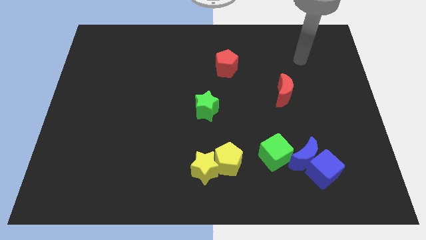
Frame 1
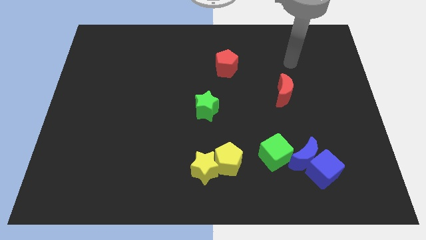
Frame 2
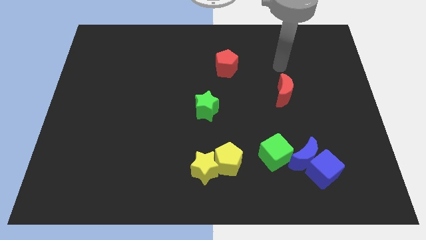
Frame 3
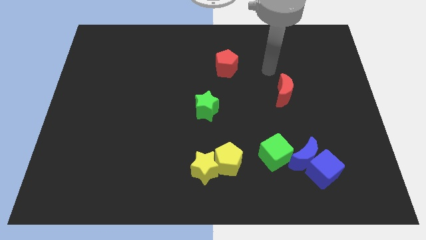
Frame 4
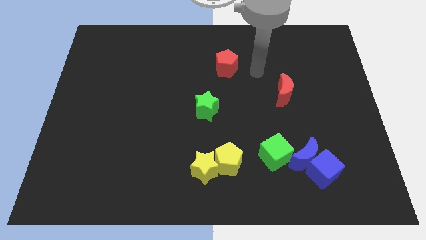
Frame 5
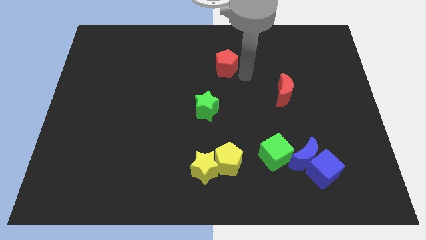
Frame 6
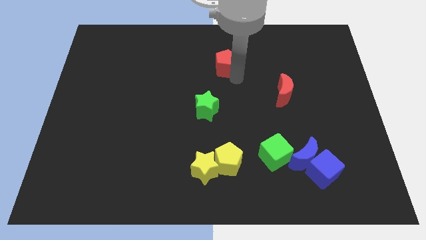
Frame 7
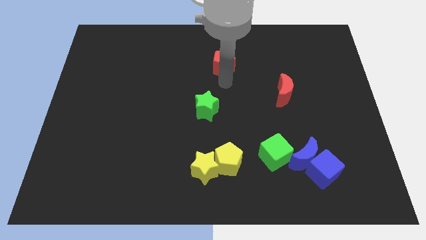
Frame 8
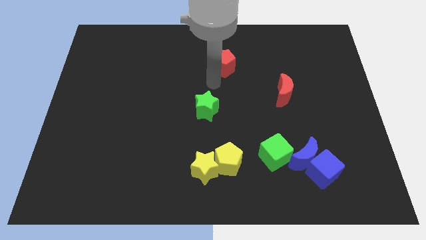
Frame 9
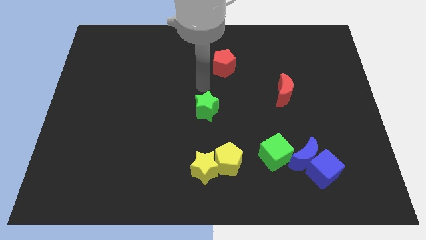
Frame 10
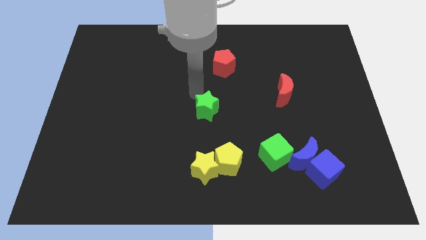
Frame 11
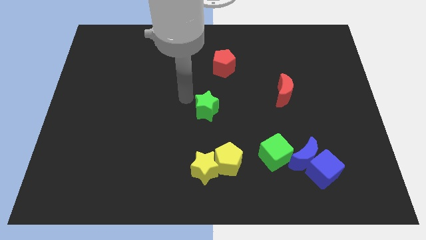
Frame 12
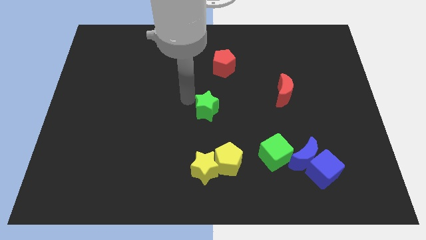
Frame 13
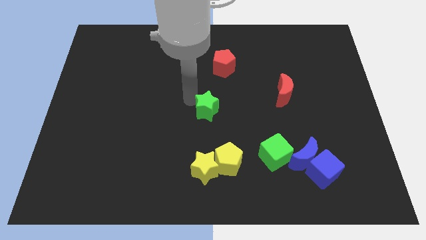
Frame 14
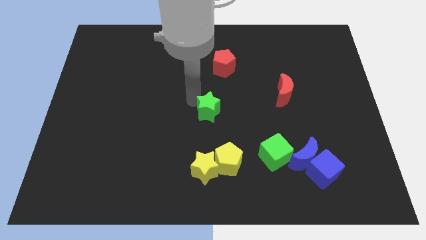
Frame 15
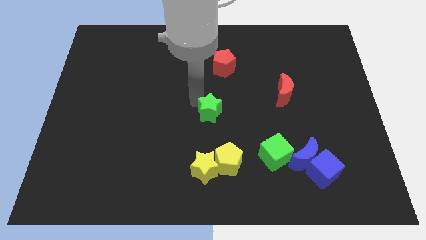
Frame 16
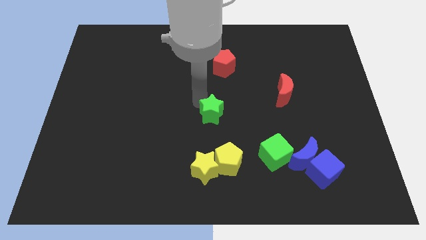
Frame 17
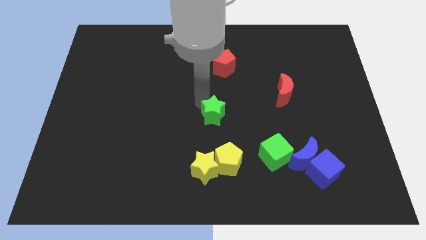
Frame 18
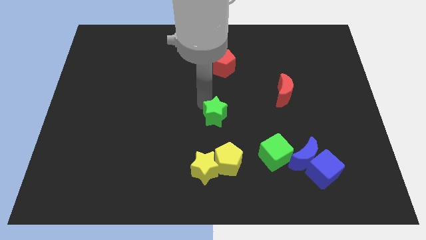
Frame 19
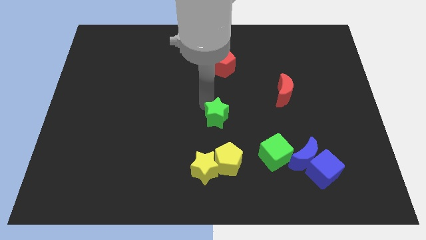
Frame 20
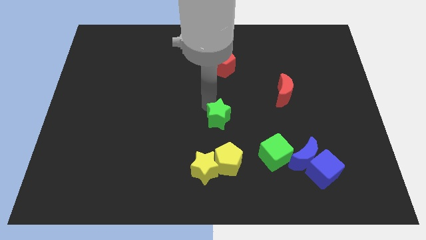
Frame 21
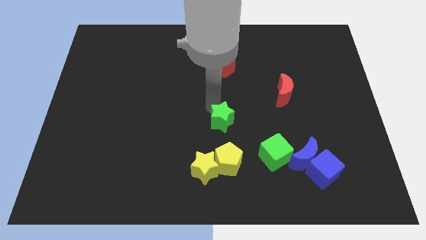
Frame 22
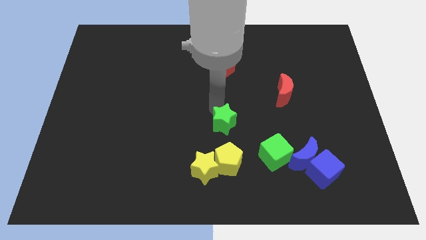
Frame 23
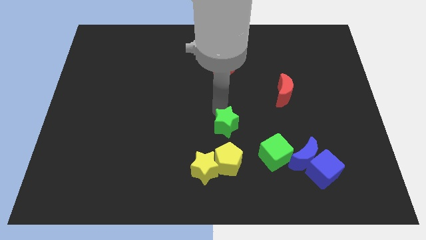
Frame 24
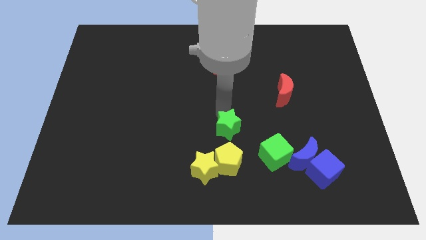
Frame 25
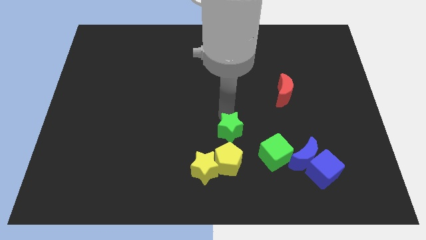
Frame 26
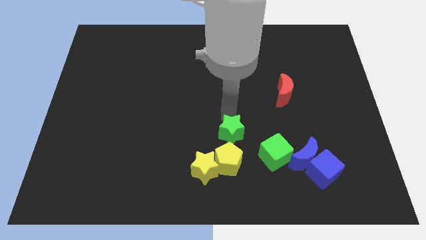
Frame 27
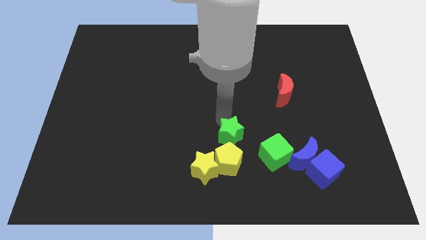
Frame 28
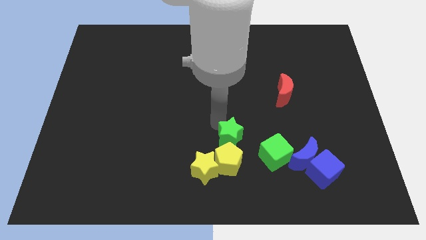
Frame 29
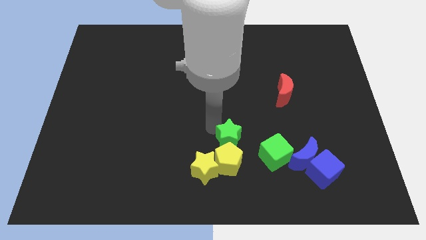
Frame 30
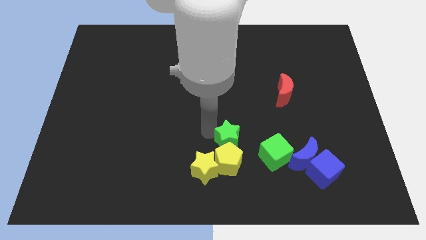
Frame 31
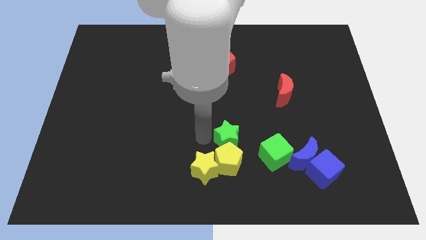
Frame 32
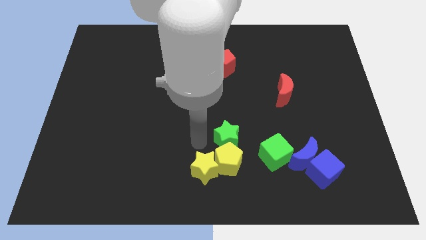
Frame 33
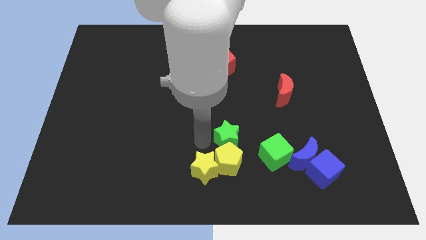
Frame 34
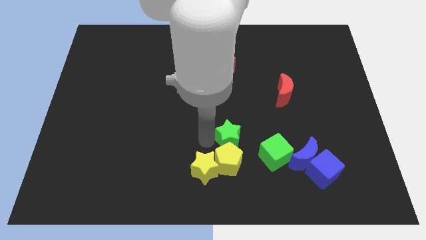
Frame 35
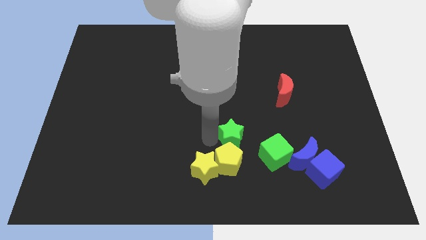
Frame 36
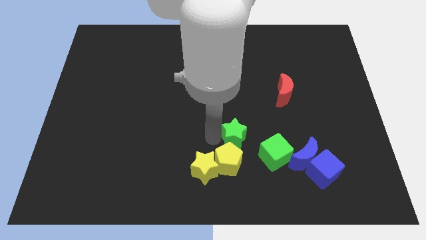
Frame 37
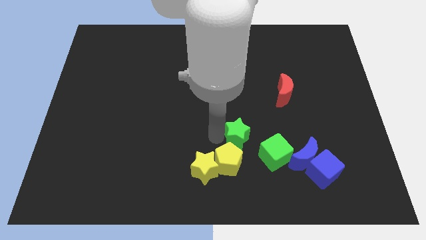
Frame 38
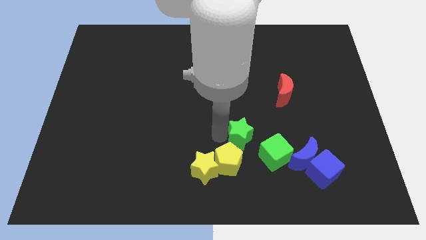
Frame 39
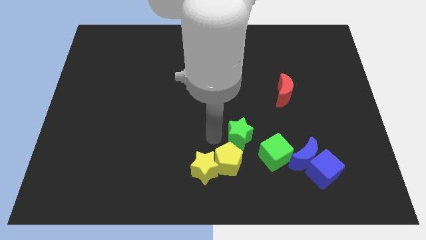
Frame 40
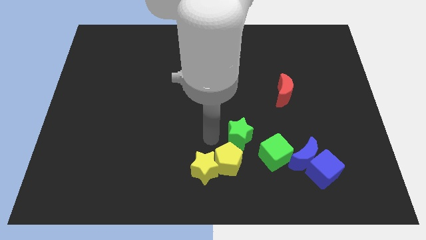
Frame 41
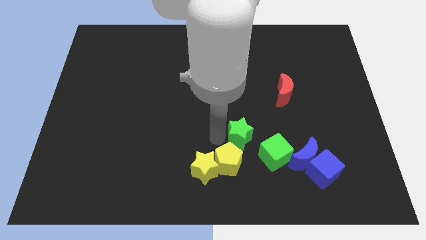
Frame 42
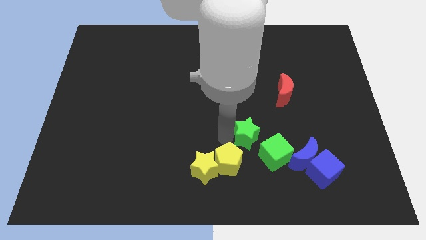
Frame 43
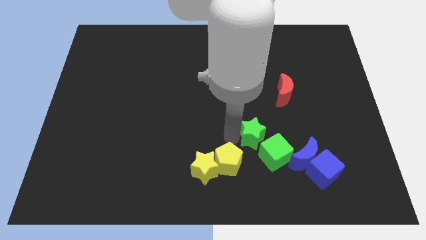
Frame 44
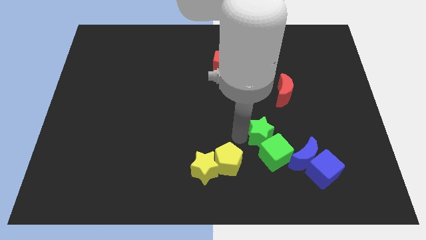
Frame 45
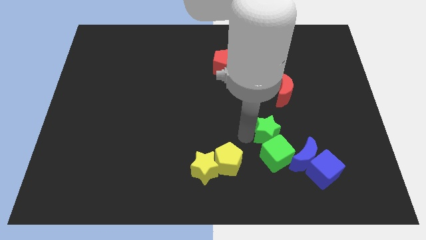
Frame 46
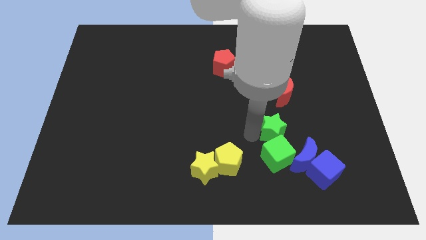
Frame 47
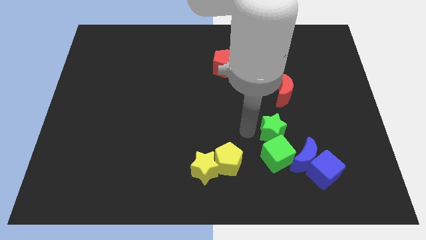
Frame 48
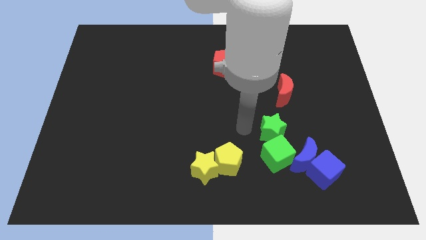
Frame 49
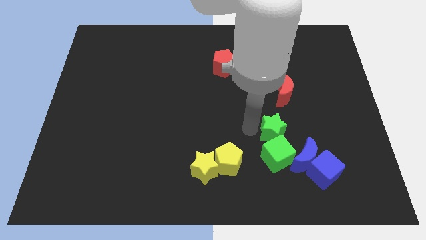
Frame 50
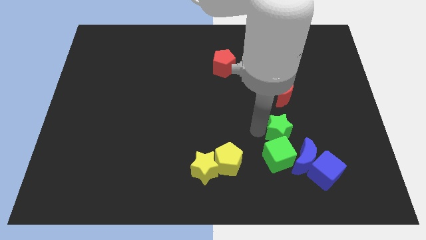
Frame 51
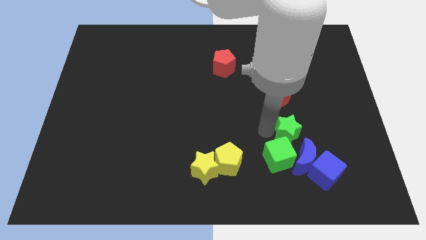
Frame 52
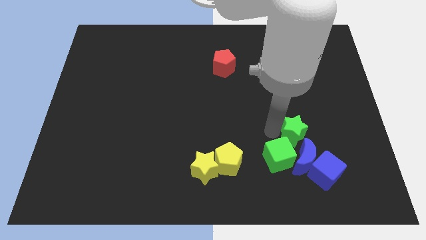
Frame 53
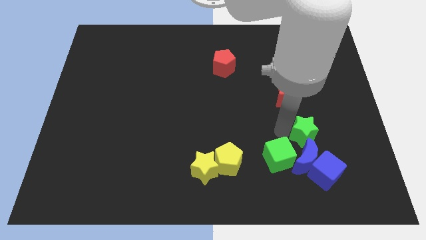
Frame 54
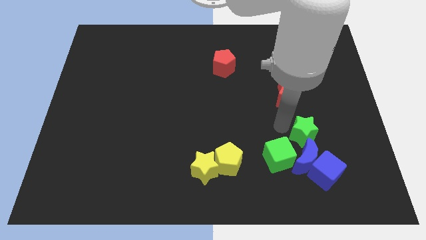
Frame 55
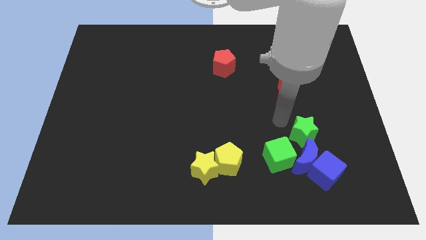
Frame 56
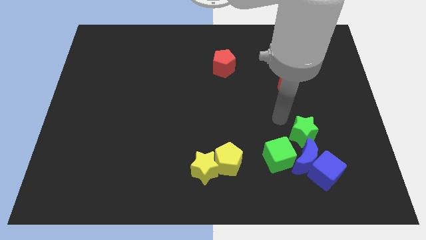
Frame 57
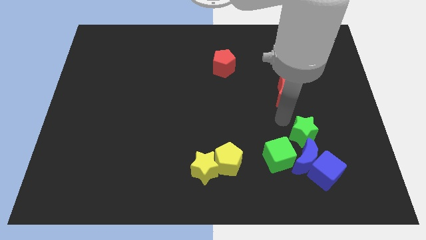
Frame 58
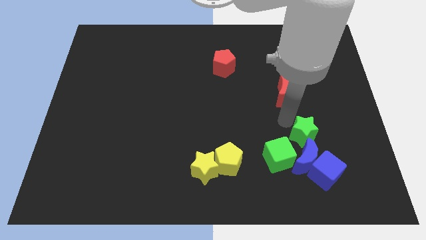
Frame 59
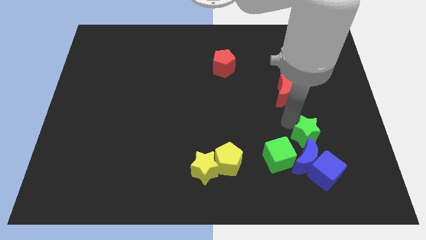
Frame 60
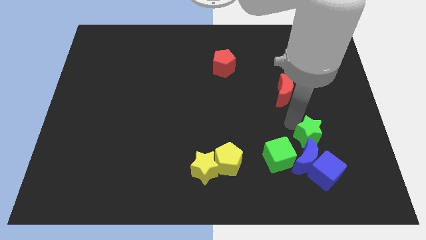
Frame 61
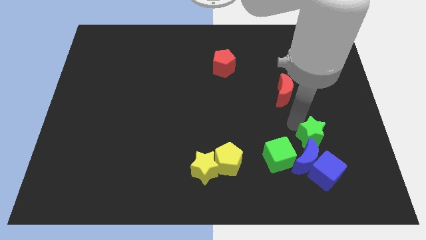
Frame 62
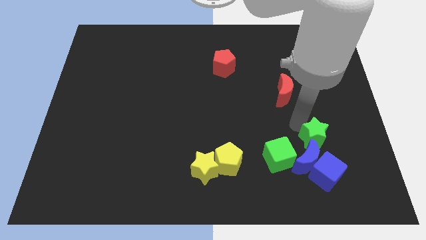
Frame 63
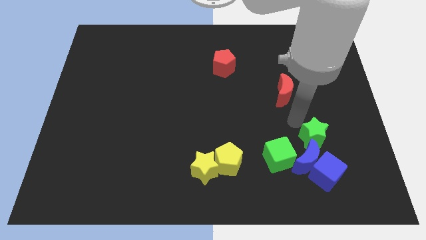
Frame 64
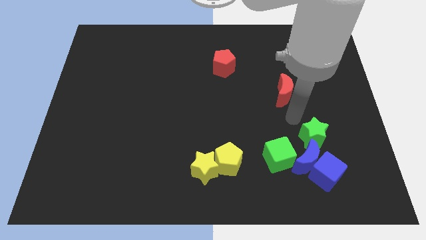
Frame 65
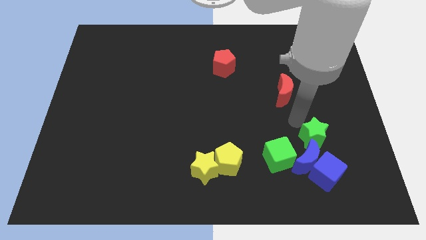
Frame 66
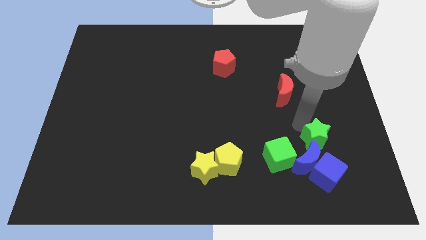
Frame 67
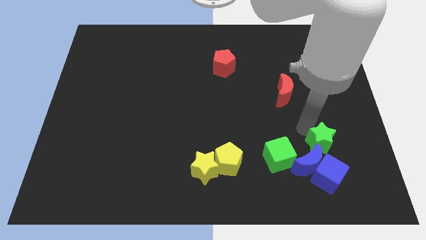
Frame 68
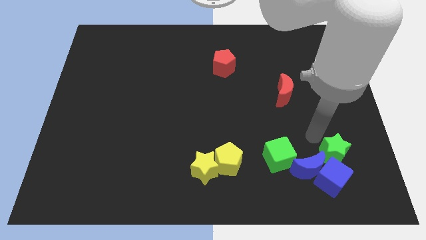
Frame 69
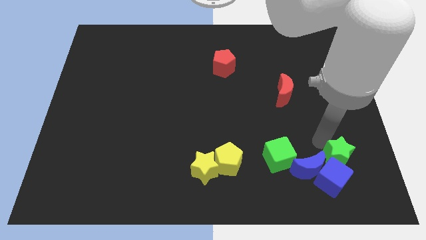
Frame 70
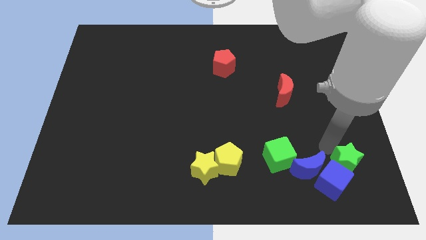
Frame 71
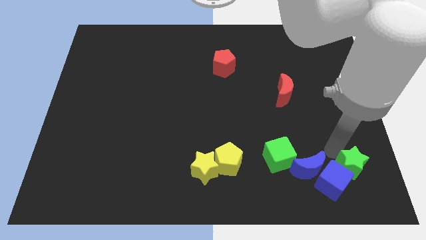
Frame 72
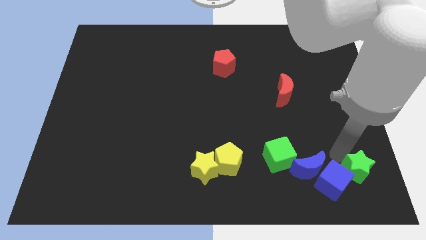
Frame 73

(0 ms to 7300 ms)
put the green star to the lower right corner
